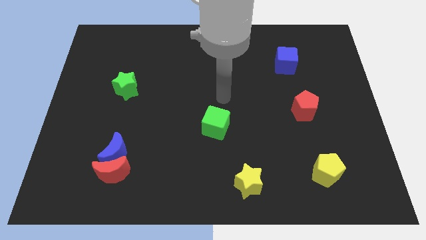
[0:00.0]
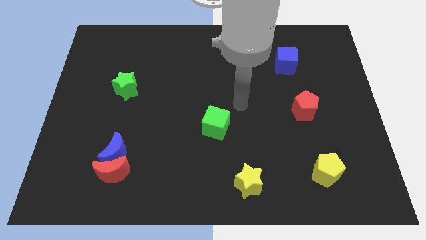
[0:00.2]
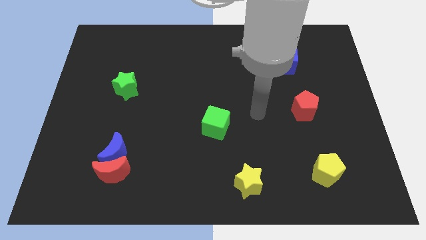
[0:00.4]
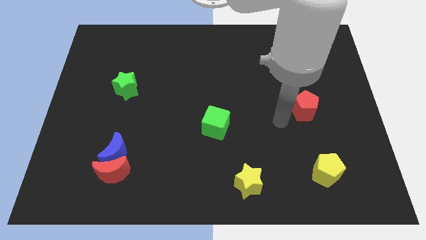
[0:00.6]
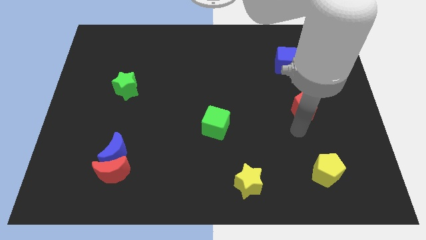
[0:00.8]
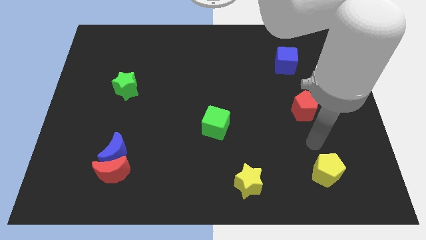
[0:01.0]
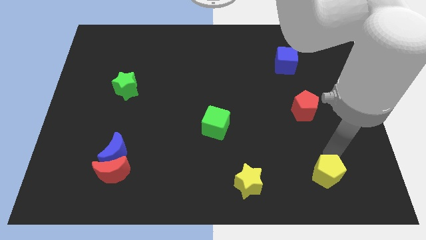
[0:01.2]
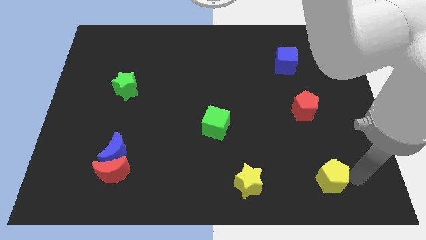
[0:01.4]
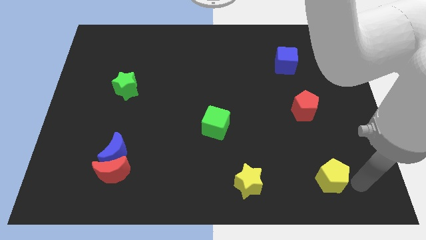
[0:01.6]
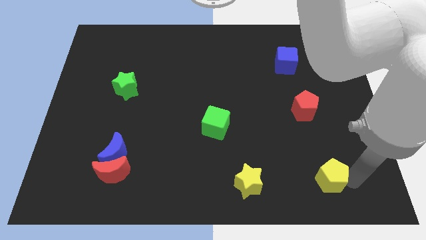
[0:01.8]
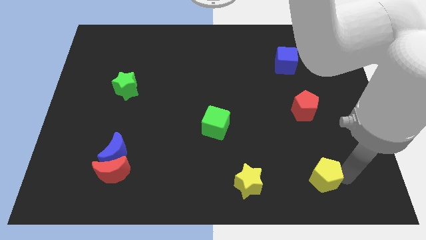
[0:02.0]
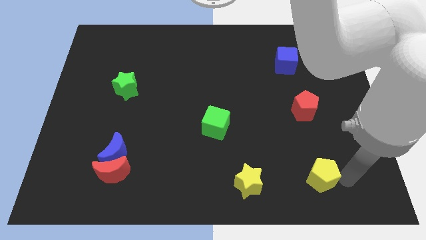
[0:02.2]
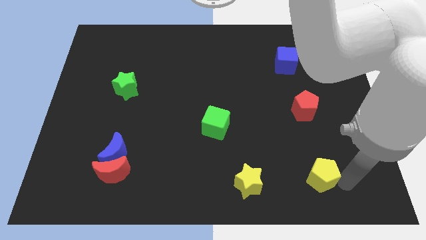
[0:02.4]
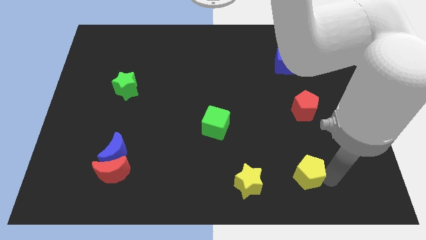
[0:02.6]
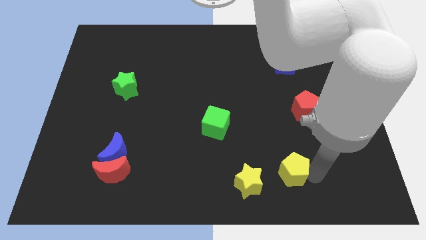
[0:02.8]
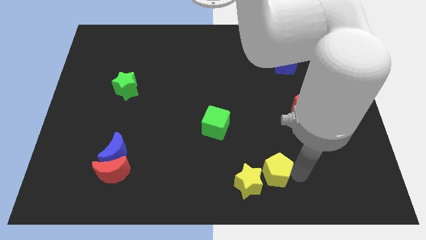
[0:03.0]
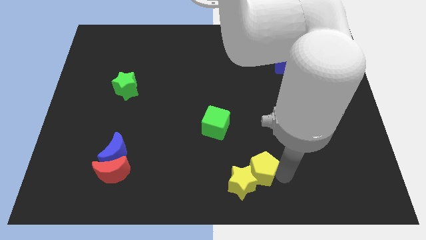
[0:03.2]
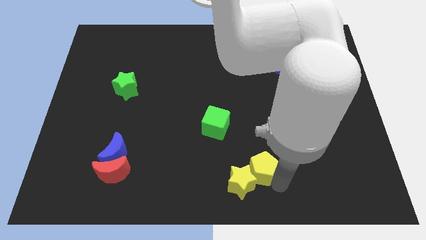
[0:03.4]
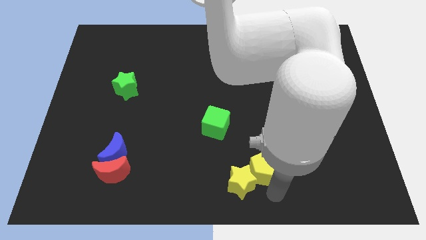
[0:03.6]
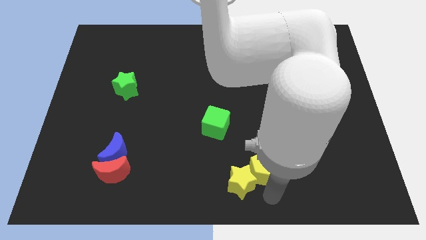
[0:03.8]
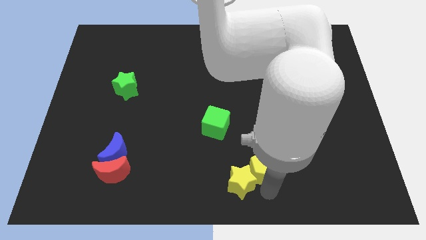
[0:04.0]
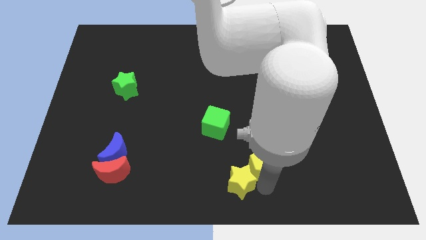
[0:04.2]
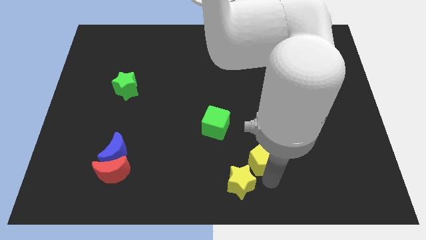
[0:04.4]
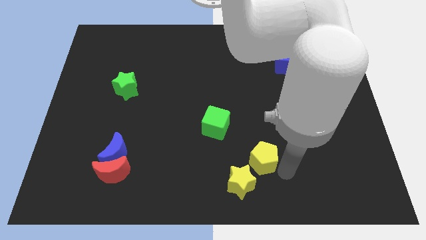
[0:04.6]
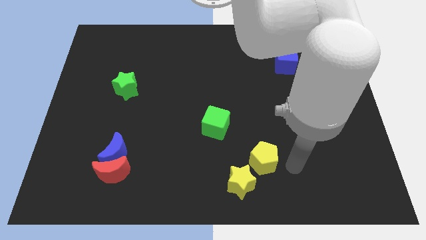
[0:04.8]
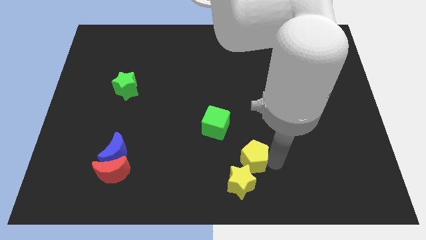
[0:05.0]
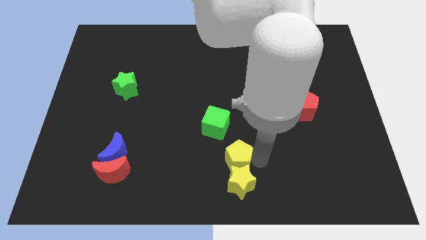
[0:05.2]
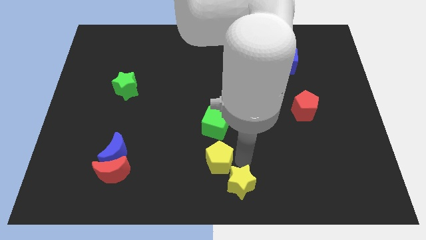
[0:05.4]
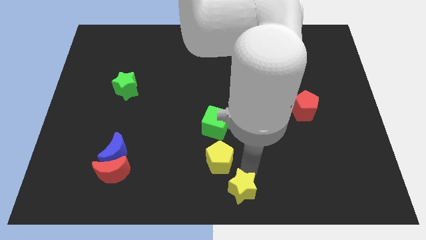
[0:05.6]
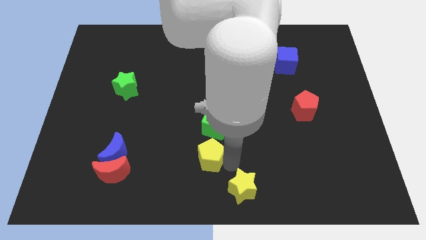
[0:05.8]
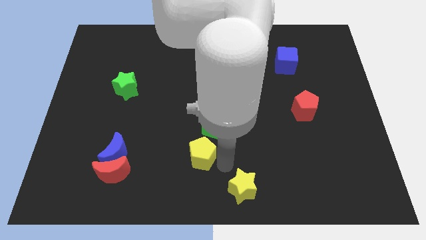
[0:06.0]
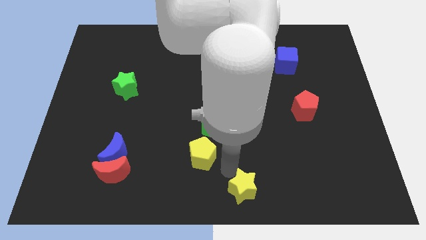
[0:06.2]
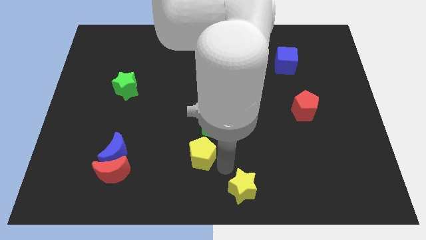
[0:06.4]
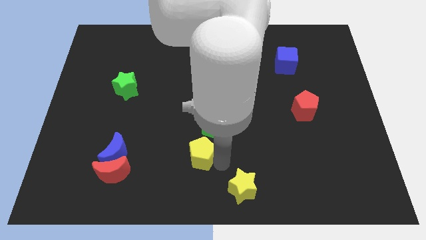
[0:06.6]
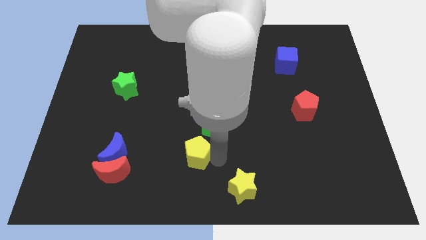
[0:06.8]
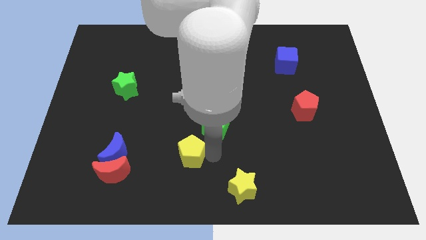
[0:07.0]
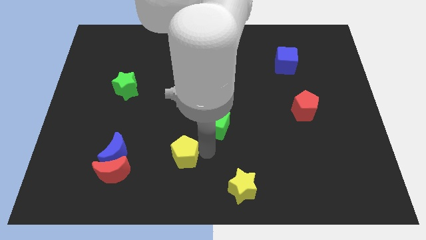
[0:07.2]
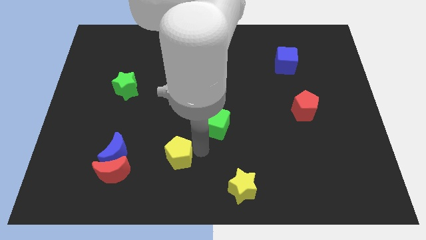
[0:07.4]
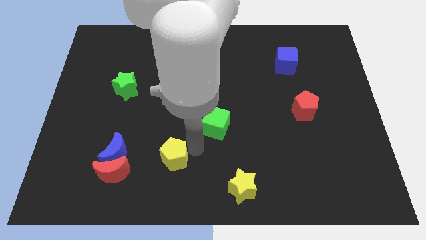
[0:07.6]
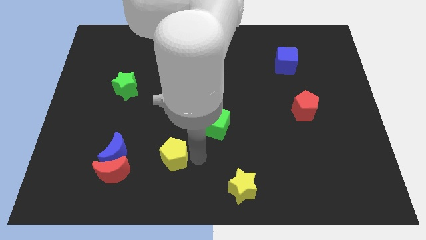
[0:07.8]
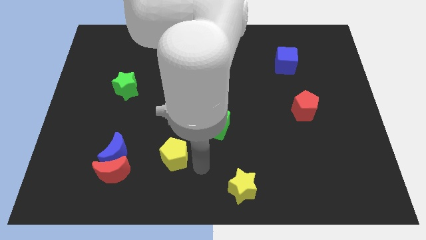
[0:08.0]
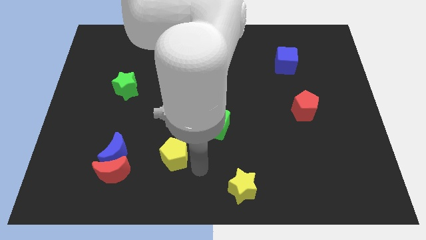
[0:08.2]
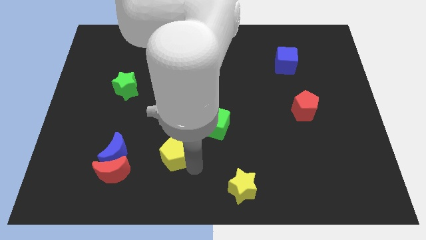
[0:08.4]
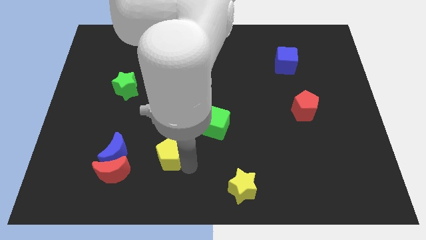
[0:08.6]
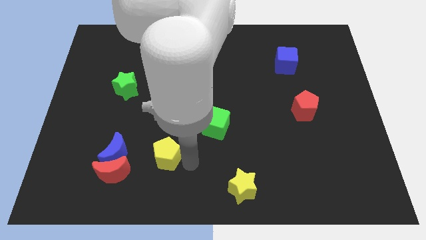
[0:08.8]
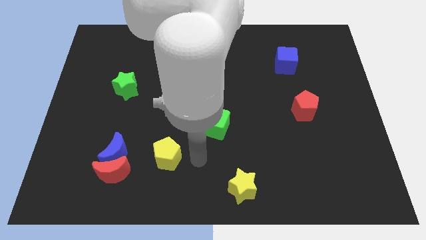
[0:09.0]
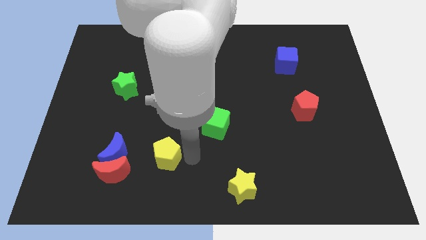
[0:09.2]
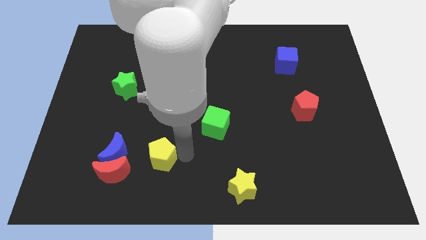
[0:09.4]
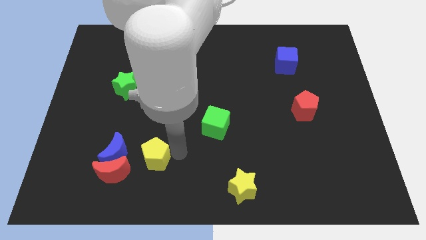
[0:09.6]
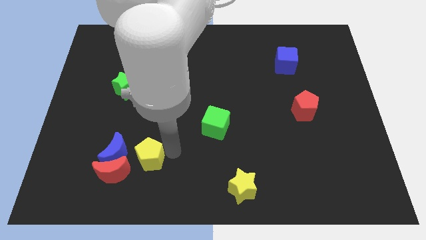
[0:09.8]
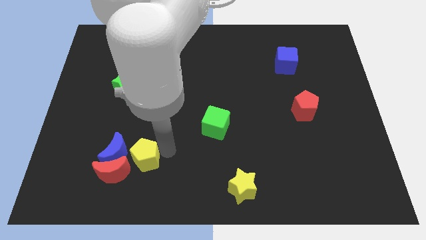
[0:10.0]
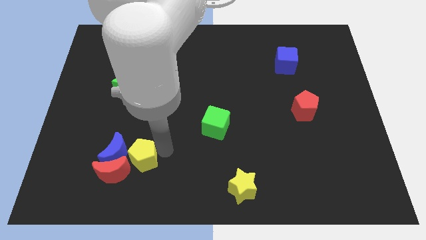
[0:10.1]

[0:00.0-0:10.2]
put the yellow pentagon close to the blue moon

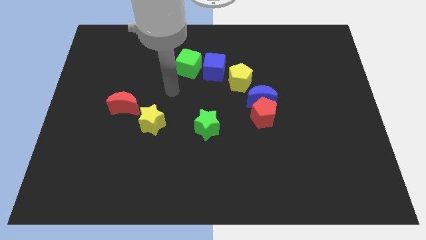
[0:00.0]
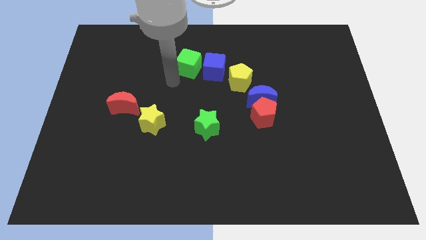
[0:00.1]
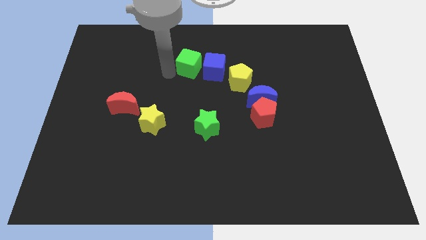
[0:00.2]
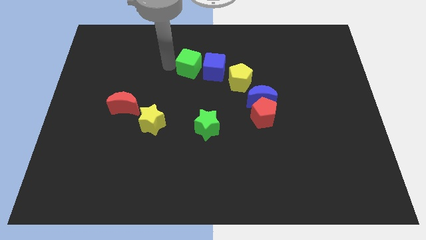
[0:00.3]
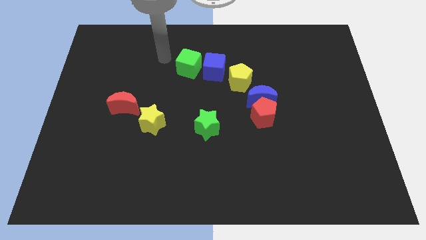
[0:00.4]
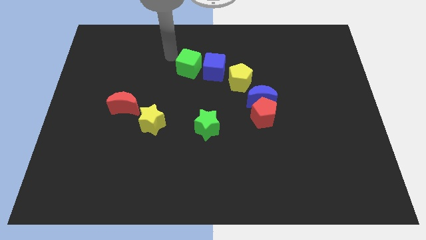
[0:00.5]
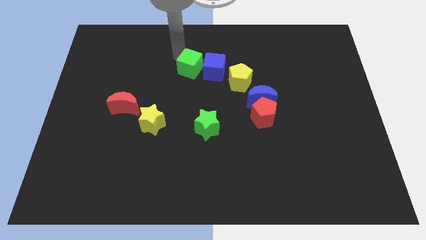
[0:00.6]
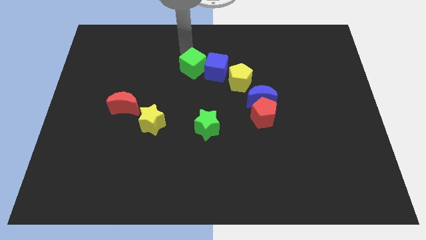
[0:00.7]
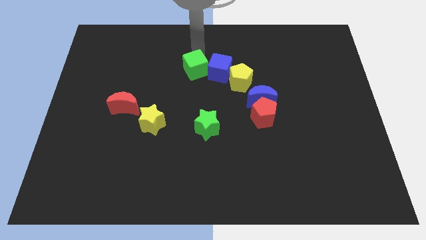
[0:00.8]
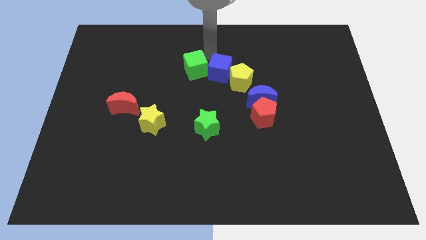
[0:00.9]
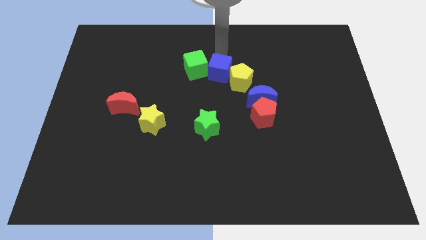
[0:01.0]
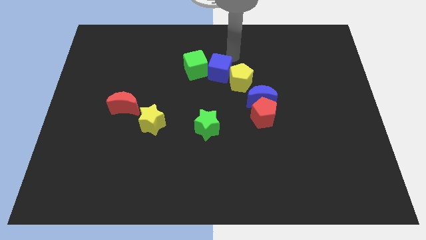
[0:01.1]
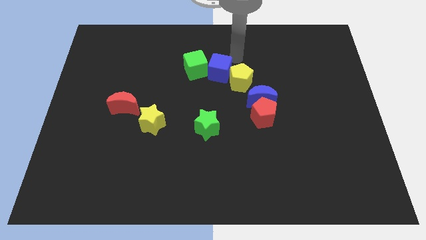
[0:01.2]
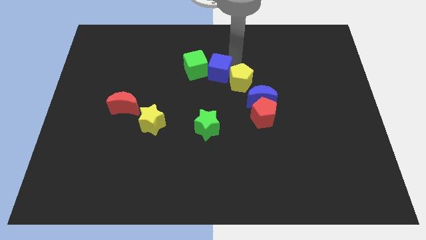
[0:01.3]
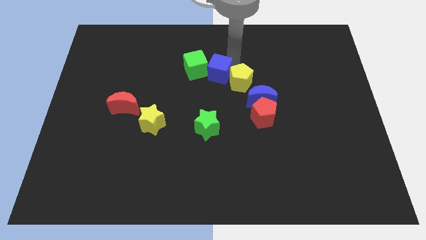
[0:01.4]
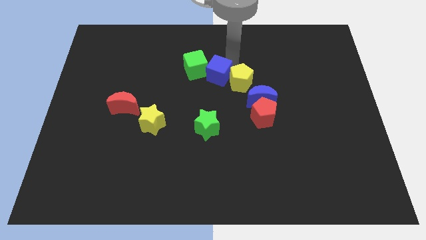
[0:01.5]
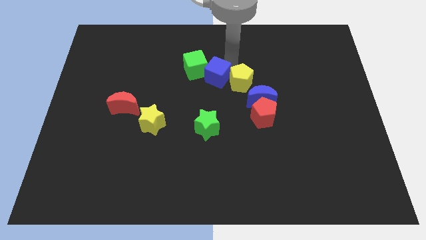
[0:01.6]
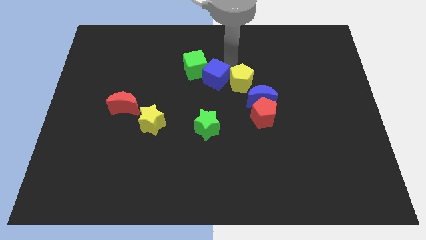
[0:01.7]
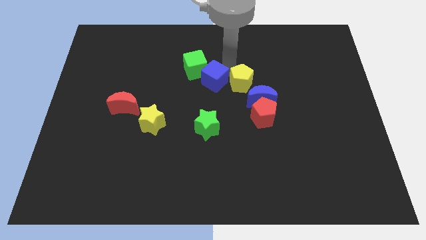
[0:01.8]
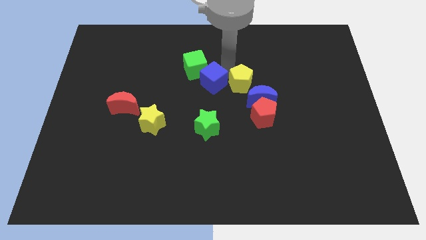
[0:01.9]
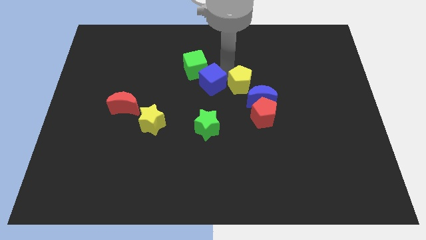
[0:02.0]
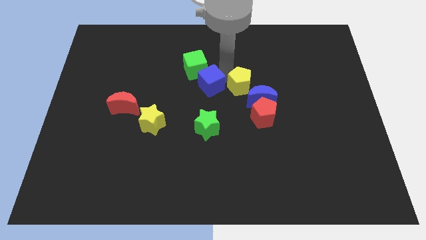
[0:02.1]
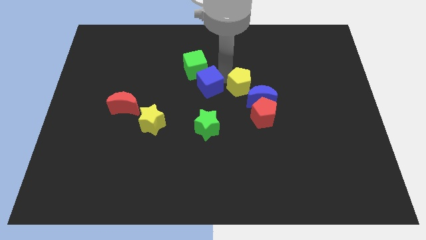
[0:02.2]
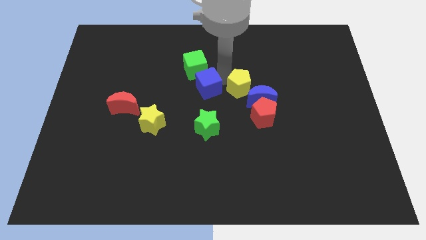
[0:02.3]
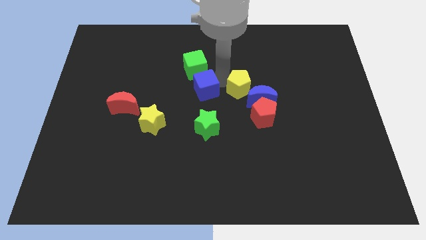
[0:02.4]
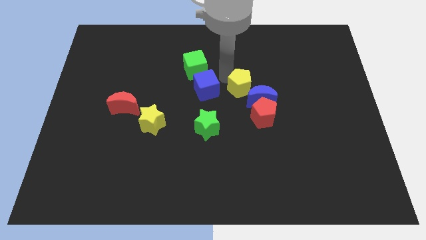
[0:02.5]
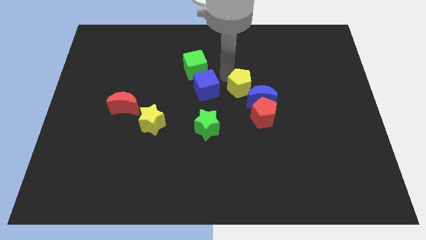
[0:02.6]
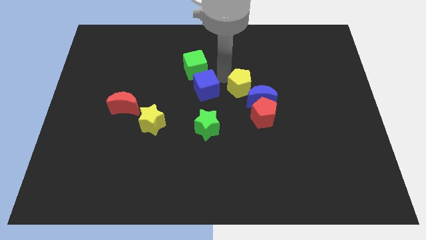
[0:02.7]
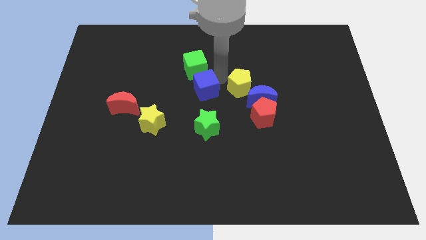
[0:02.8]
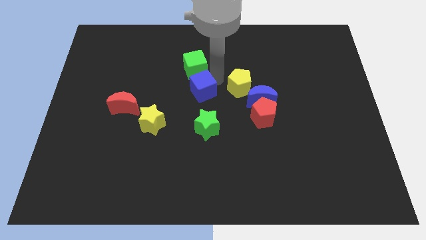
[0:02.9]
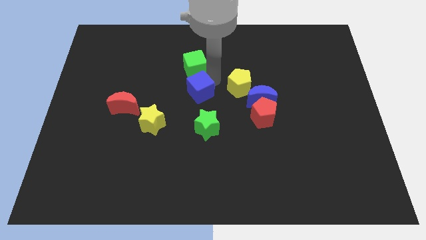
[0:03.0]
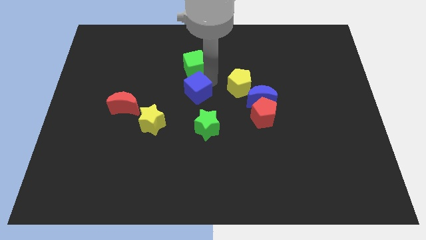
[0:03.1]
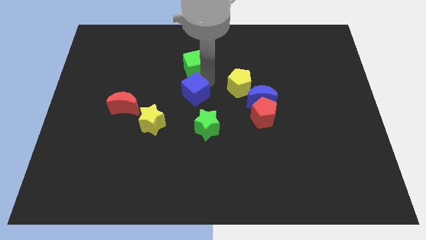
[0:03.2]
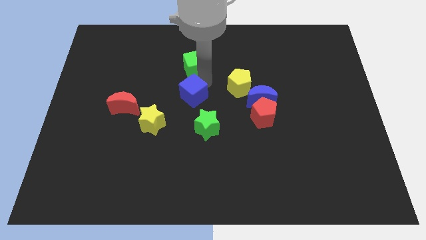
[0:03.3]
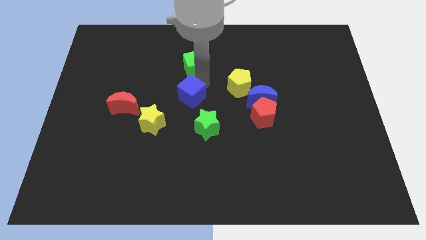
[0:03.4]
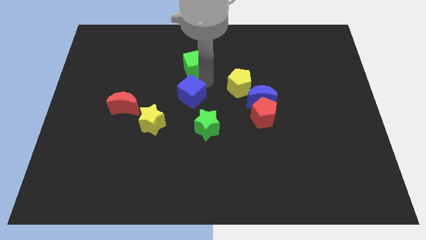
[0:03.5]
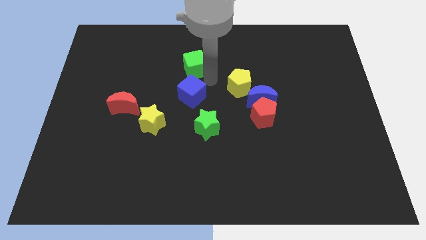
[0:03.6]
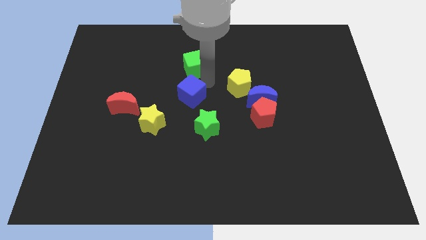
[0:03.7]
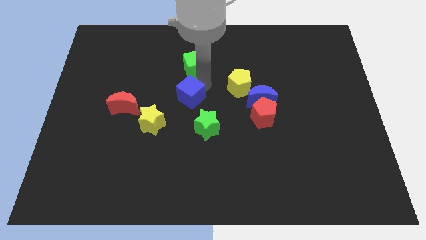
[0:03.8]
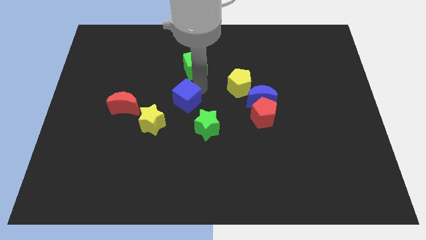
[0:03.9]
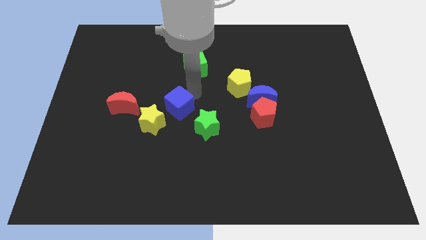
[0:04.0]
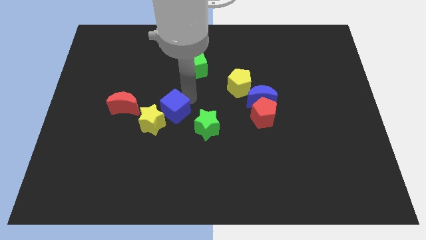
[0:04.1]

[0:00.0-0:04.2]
put the blue cube towards the yellow star
